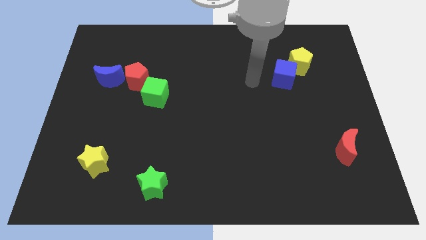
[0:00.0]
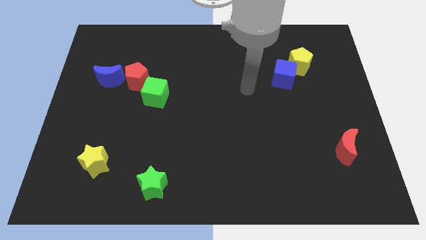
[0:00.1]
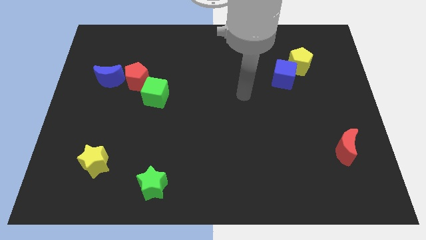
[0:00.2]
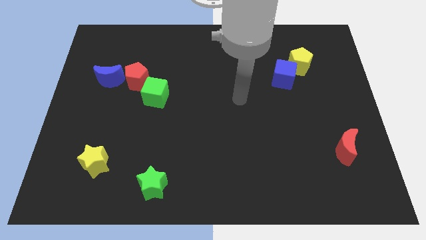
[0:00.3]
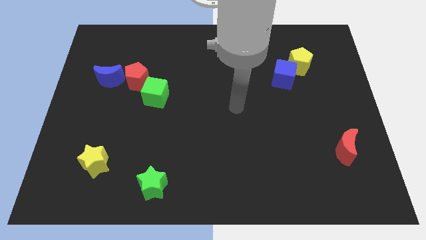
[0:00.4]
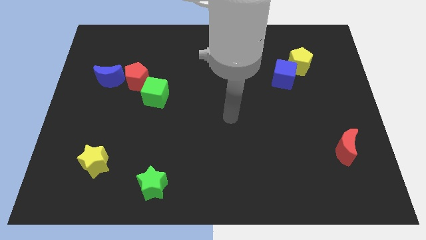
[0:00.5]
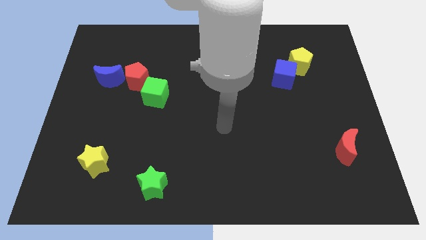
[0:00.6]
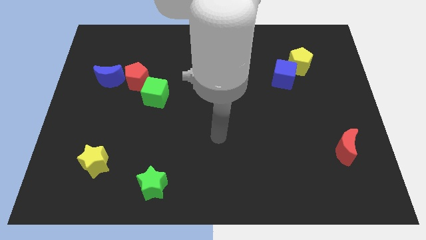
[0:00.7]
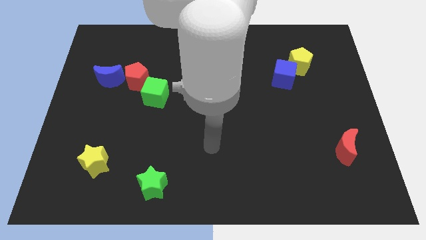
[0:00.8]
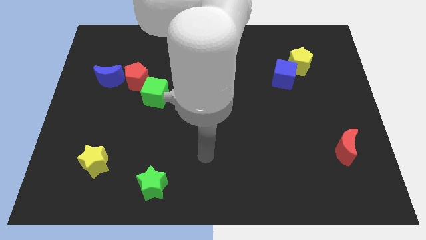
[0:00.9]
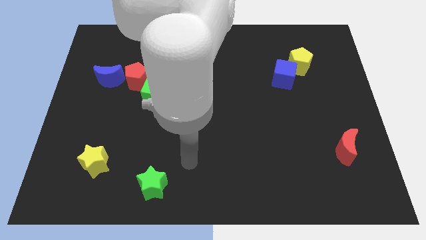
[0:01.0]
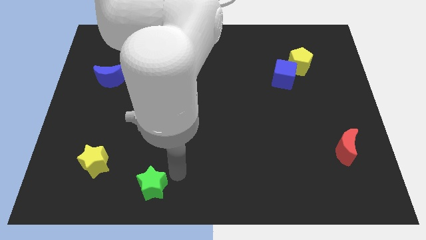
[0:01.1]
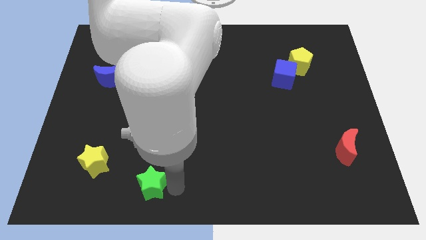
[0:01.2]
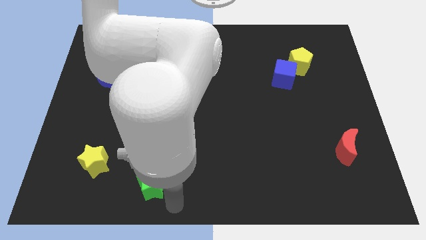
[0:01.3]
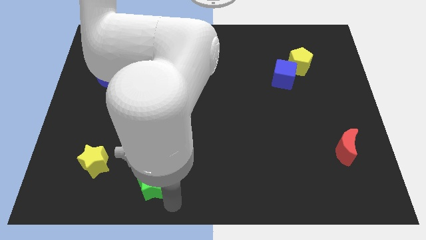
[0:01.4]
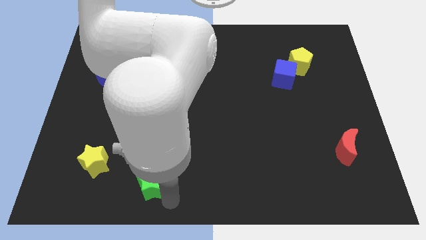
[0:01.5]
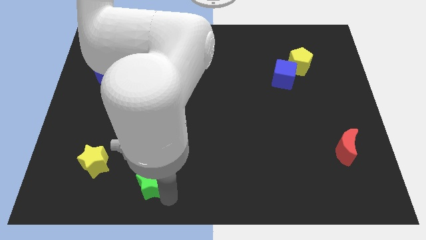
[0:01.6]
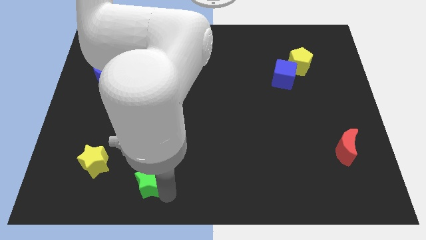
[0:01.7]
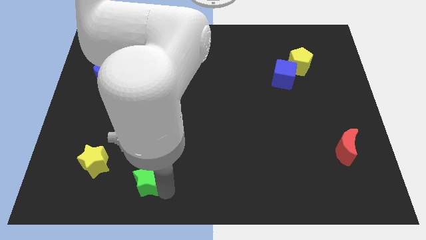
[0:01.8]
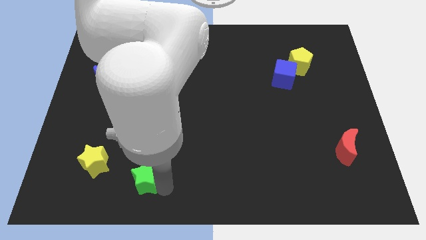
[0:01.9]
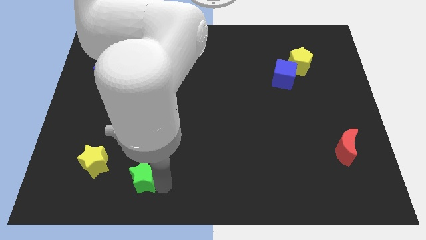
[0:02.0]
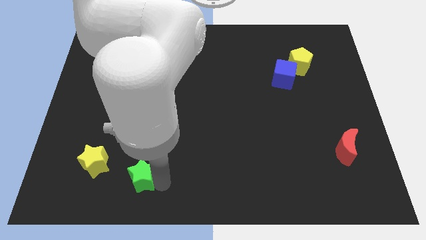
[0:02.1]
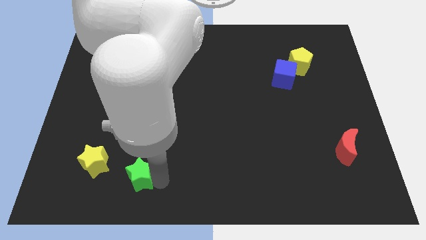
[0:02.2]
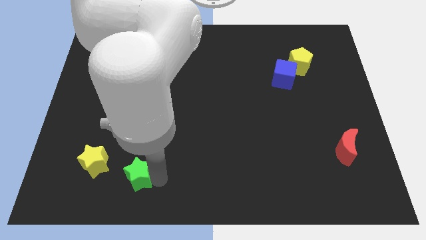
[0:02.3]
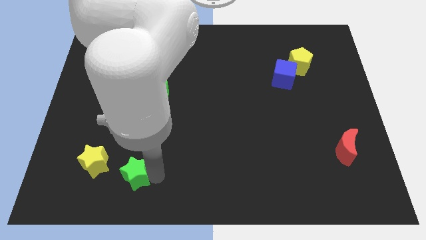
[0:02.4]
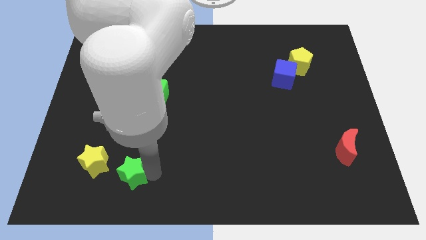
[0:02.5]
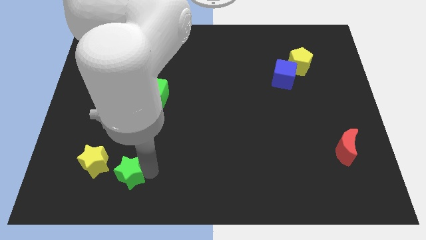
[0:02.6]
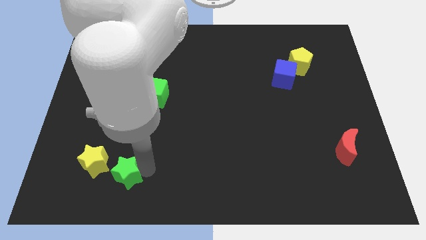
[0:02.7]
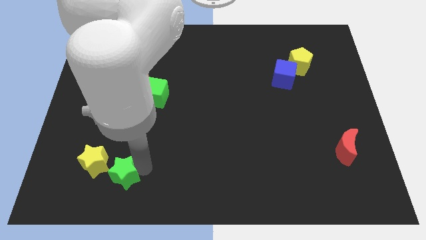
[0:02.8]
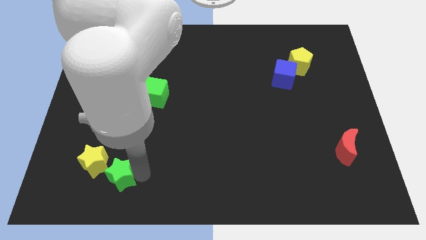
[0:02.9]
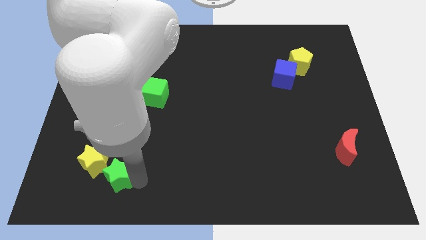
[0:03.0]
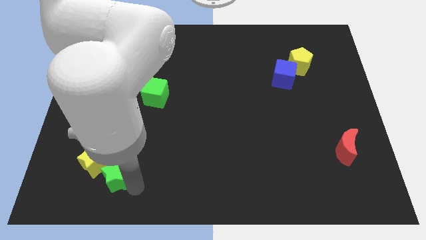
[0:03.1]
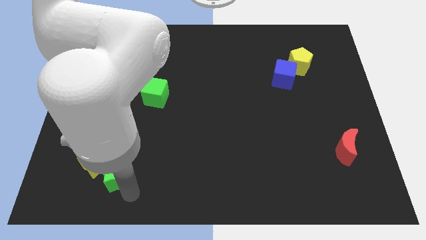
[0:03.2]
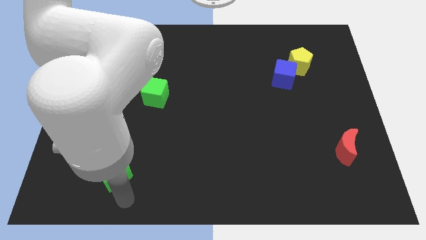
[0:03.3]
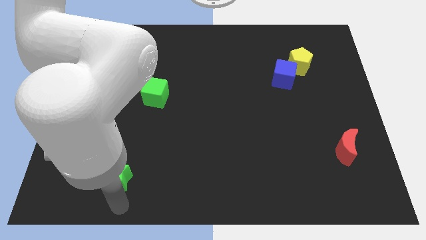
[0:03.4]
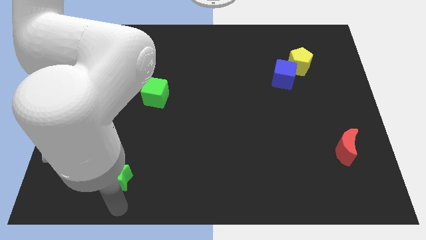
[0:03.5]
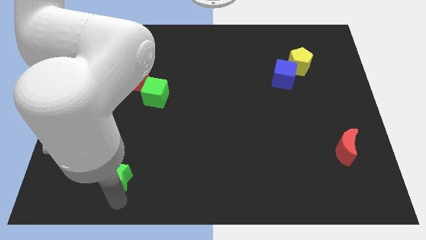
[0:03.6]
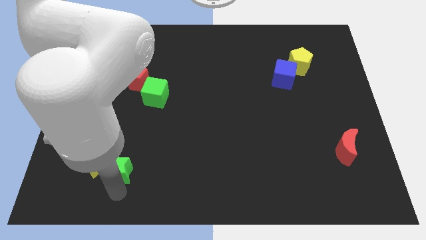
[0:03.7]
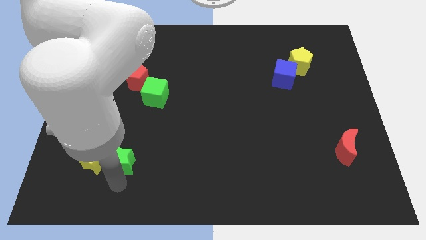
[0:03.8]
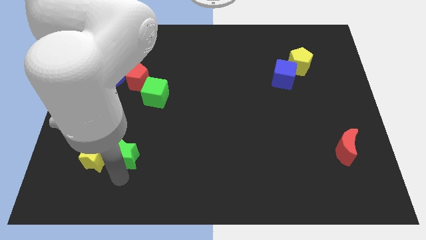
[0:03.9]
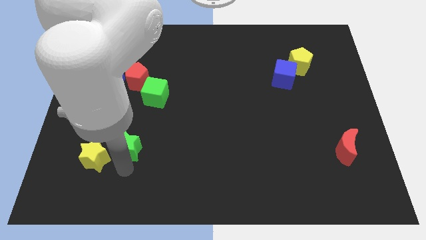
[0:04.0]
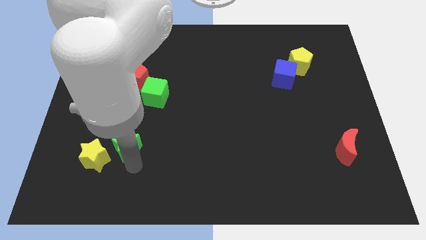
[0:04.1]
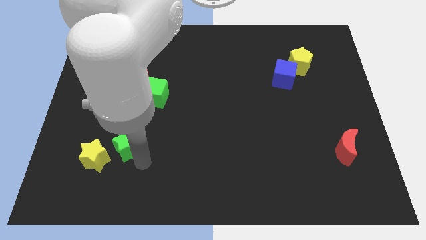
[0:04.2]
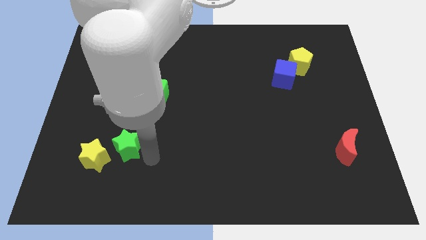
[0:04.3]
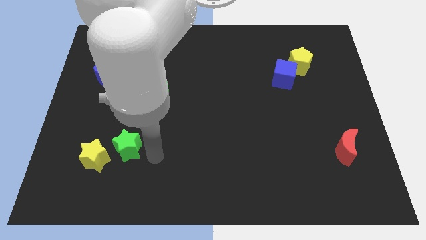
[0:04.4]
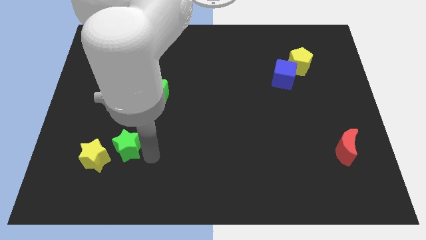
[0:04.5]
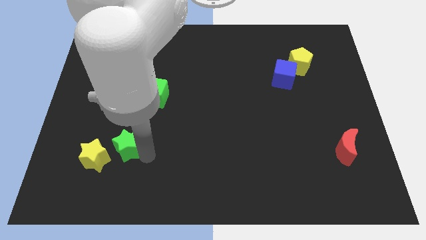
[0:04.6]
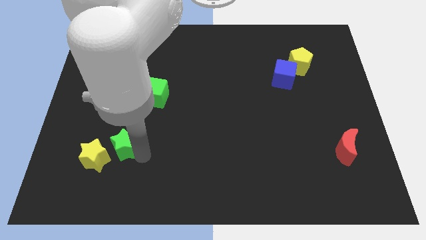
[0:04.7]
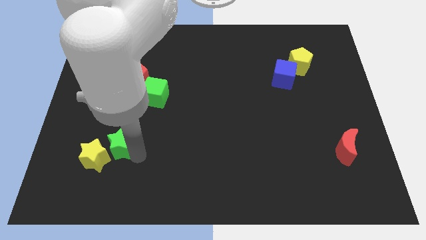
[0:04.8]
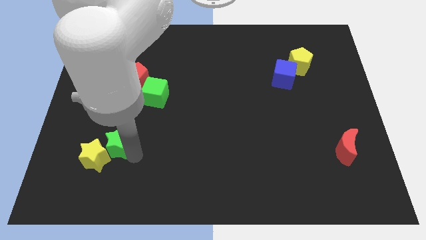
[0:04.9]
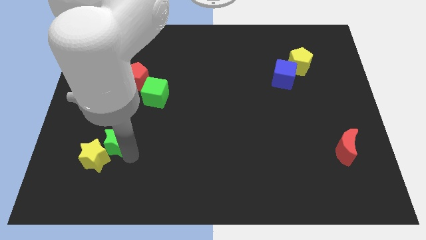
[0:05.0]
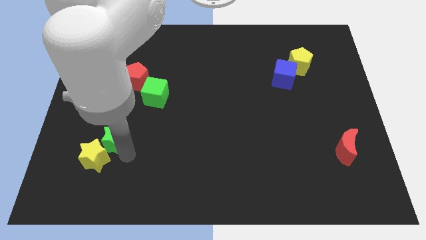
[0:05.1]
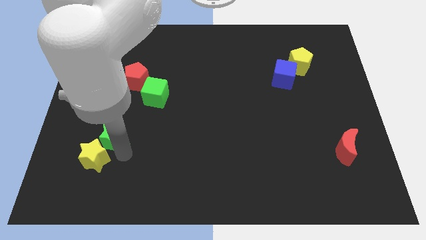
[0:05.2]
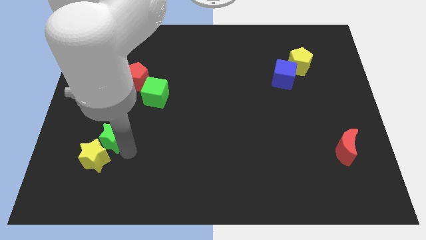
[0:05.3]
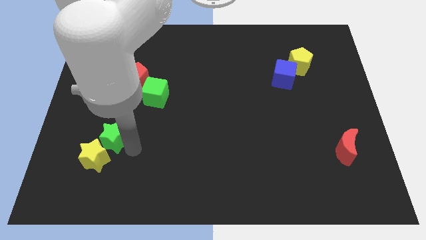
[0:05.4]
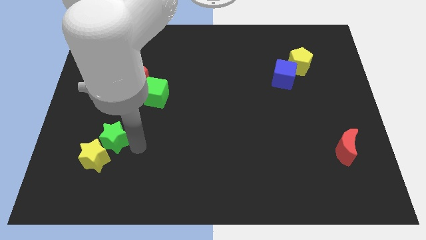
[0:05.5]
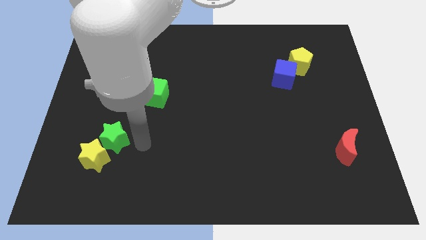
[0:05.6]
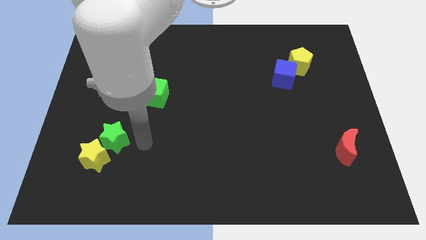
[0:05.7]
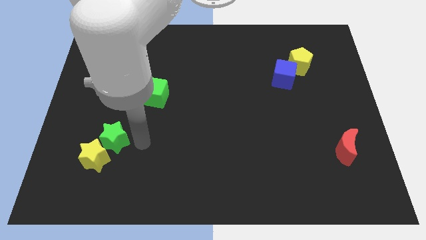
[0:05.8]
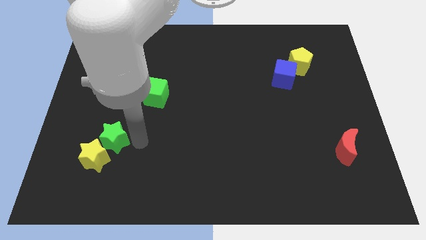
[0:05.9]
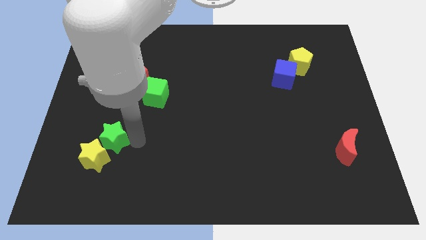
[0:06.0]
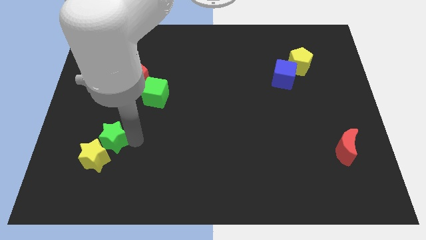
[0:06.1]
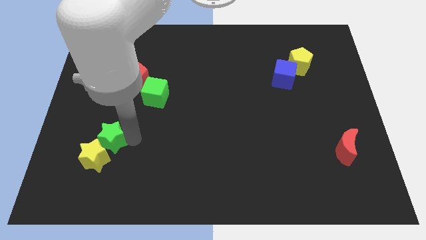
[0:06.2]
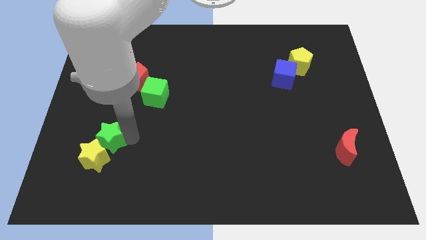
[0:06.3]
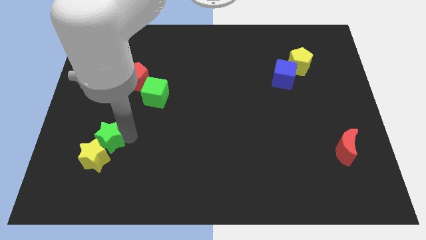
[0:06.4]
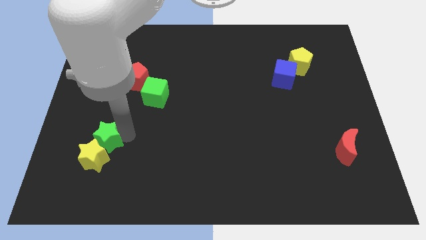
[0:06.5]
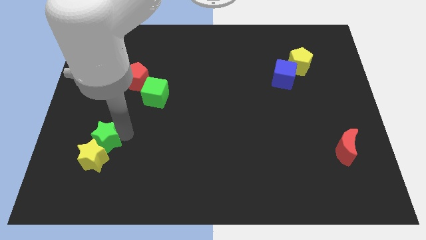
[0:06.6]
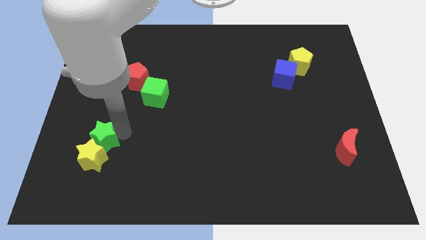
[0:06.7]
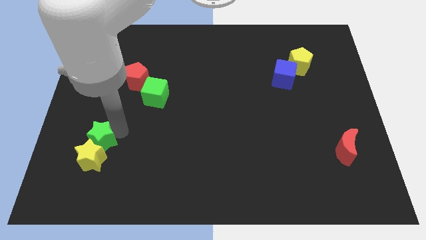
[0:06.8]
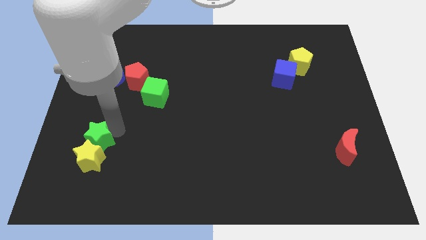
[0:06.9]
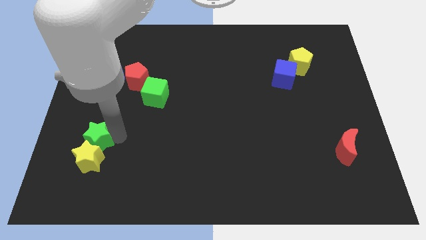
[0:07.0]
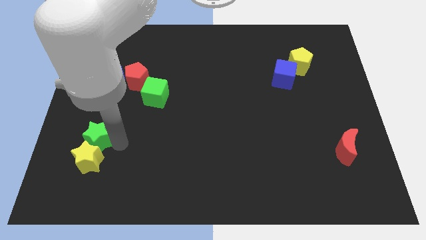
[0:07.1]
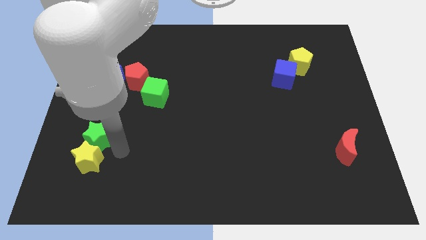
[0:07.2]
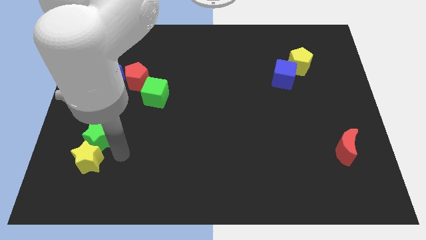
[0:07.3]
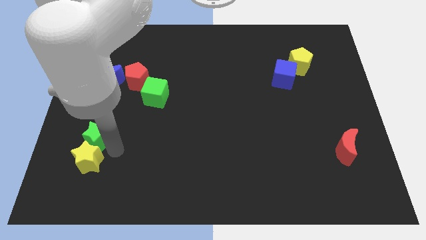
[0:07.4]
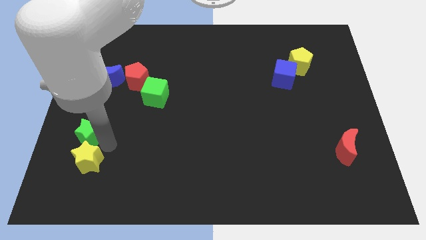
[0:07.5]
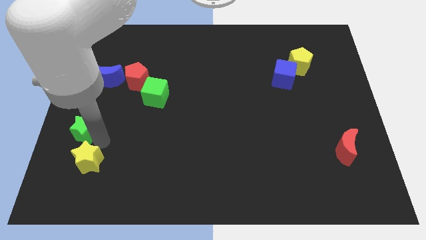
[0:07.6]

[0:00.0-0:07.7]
push the green star to the left side of the board
